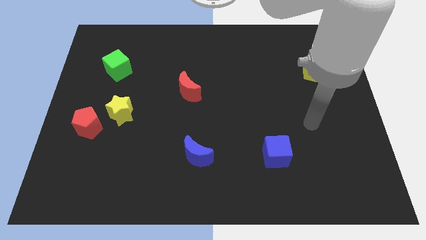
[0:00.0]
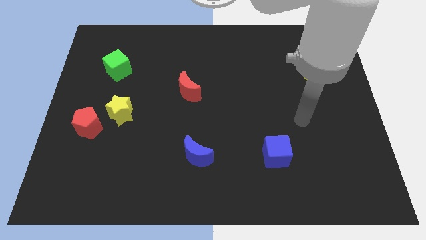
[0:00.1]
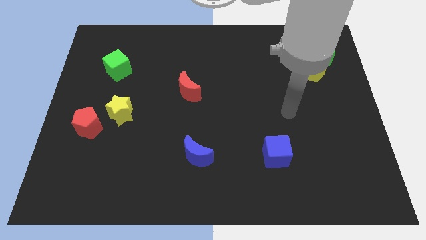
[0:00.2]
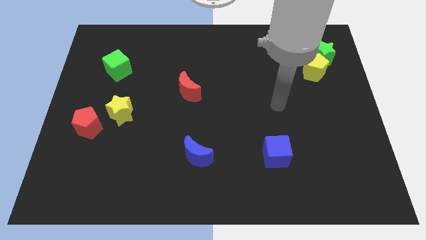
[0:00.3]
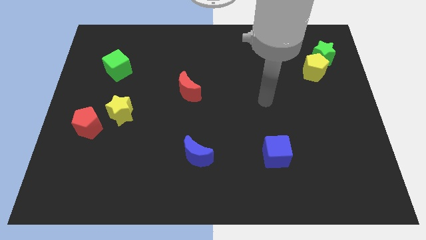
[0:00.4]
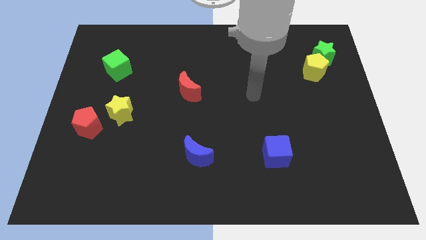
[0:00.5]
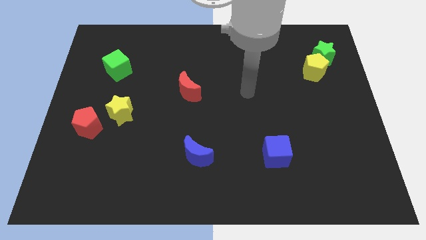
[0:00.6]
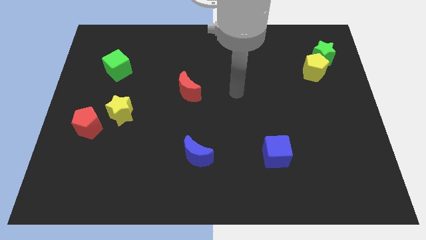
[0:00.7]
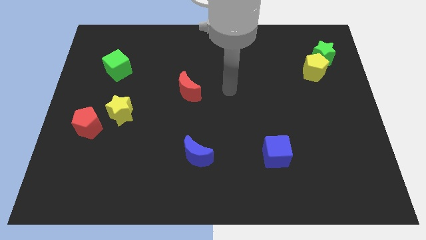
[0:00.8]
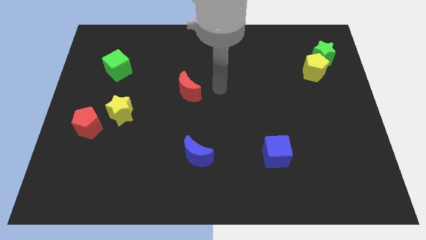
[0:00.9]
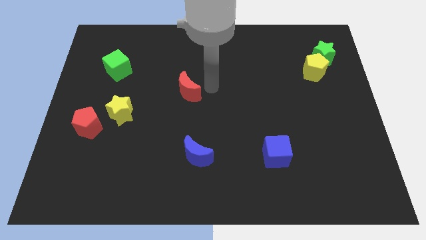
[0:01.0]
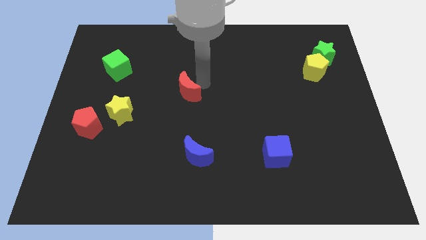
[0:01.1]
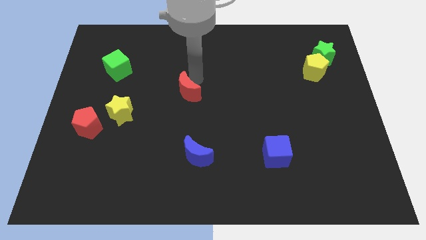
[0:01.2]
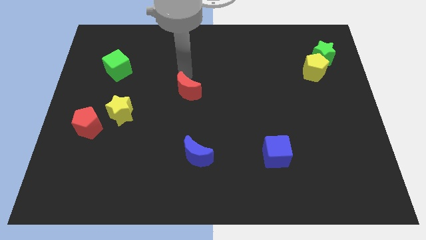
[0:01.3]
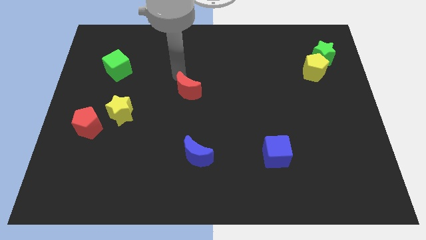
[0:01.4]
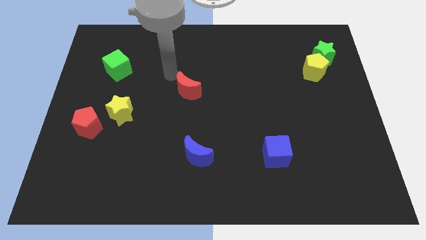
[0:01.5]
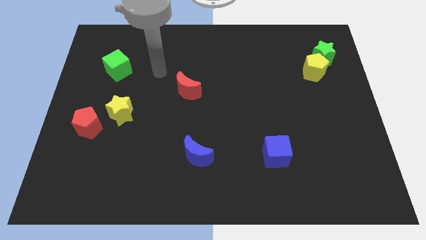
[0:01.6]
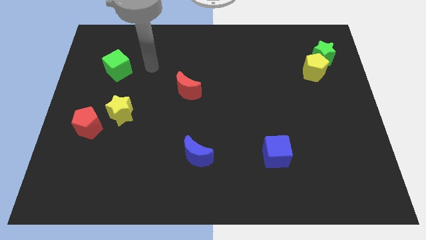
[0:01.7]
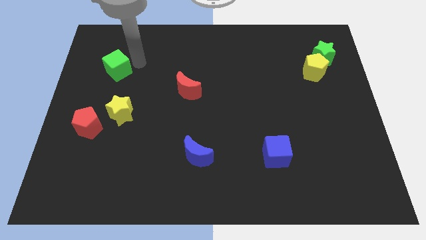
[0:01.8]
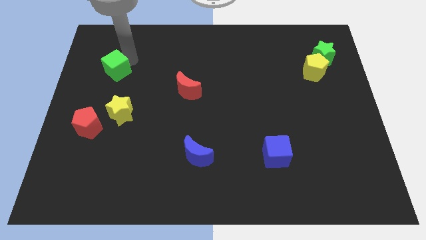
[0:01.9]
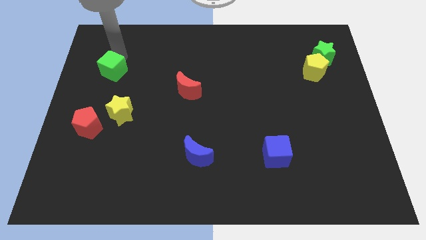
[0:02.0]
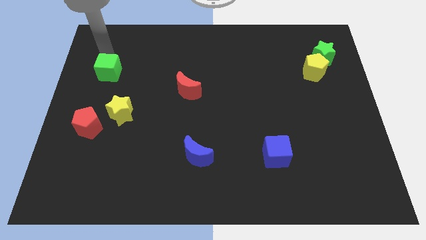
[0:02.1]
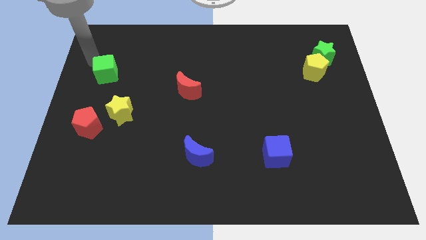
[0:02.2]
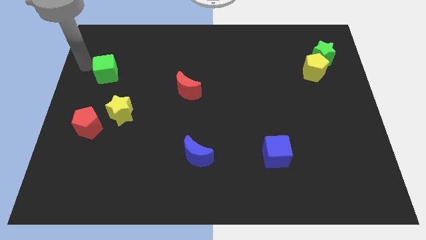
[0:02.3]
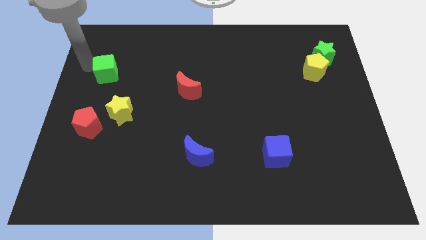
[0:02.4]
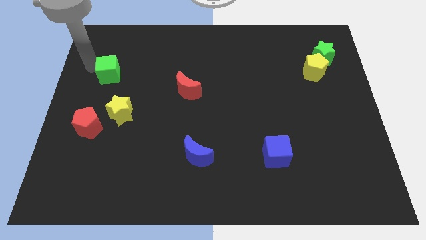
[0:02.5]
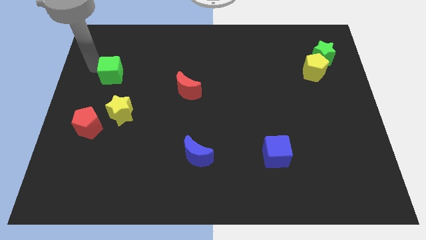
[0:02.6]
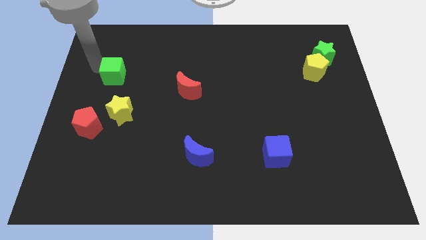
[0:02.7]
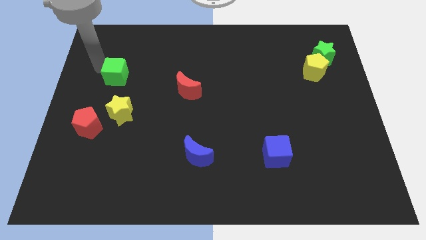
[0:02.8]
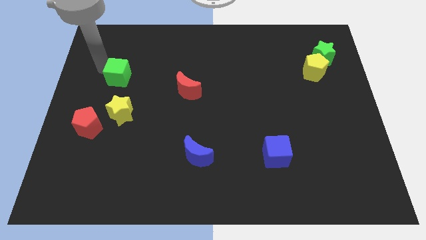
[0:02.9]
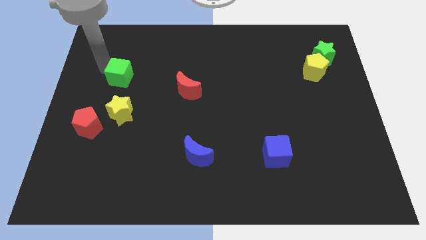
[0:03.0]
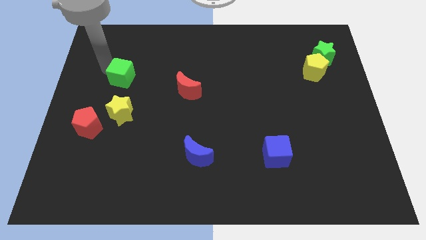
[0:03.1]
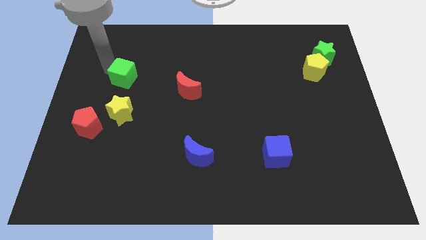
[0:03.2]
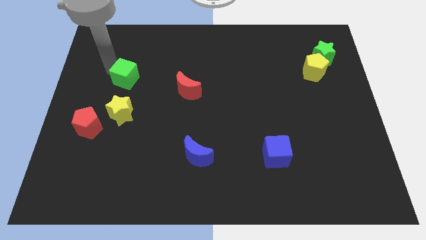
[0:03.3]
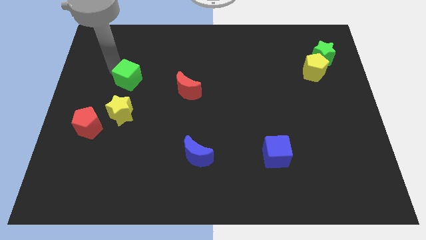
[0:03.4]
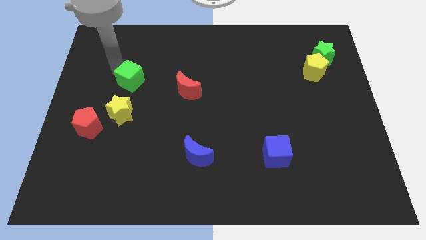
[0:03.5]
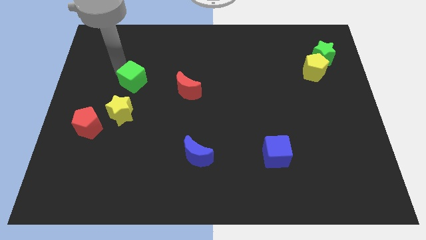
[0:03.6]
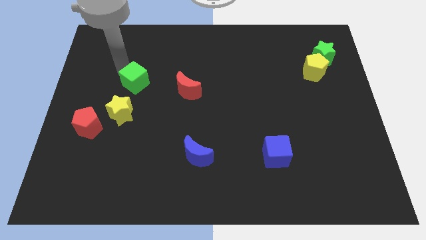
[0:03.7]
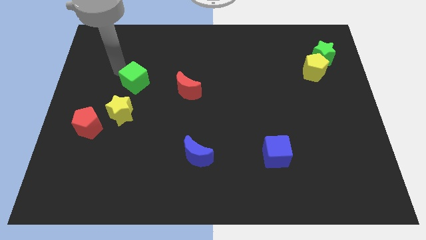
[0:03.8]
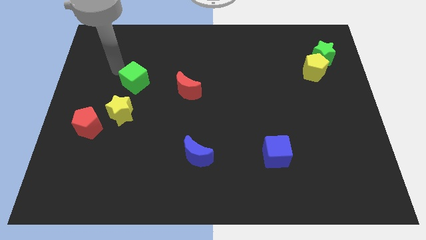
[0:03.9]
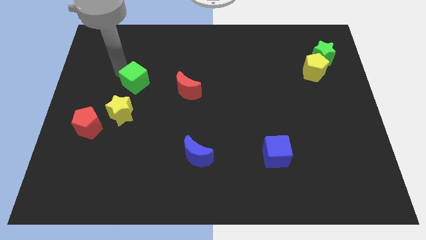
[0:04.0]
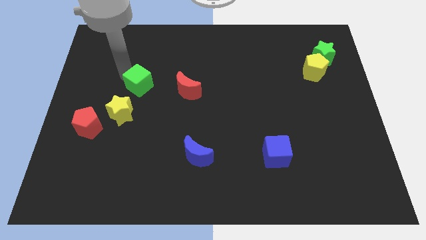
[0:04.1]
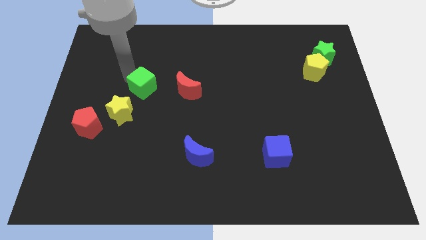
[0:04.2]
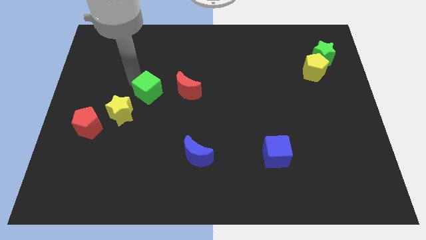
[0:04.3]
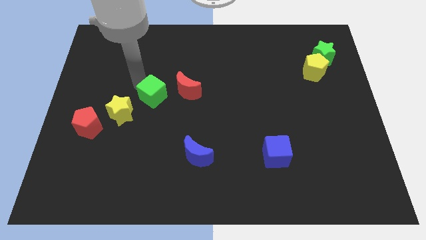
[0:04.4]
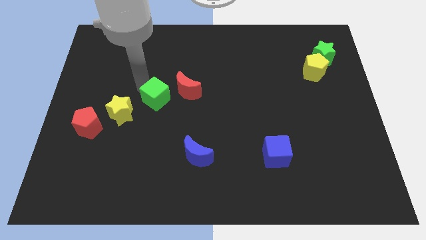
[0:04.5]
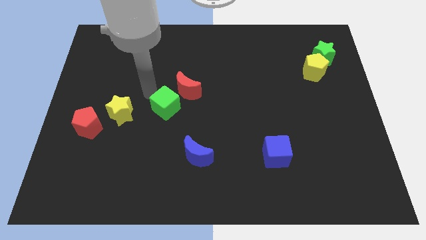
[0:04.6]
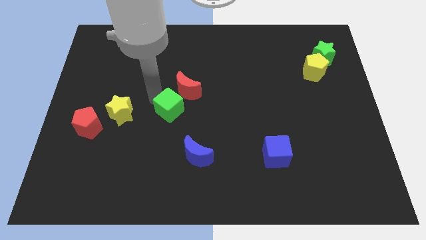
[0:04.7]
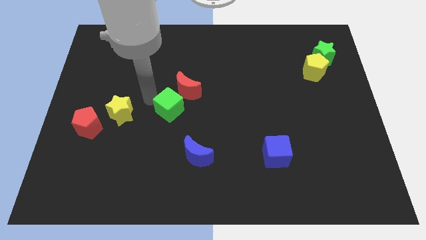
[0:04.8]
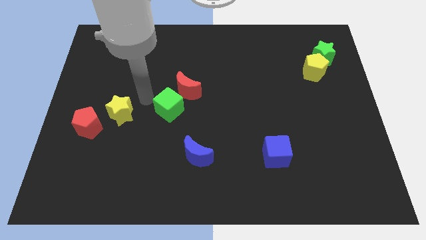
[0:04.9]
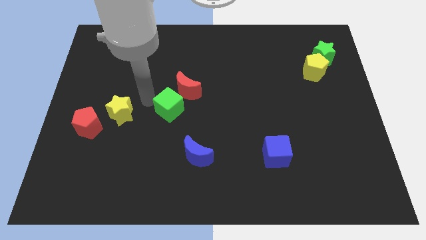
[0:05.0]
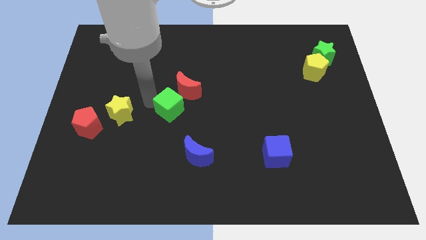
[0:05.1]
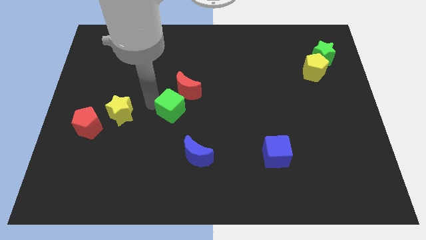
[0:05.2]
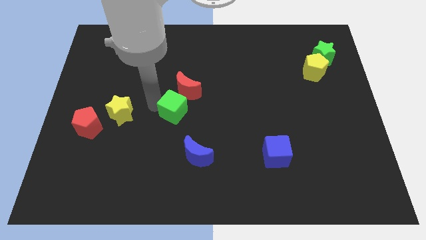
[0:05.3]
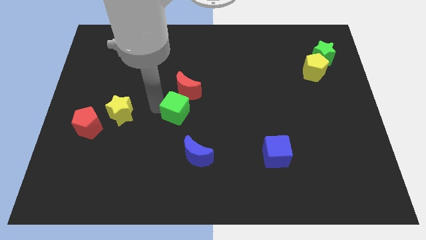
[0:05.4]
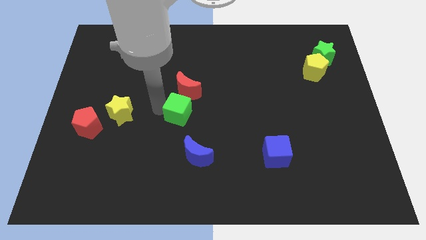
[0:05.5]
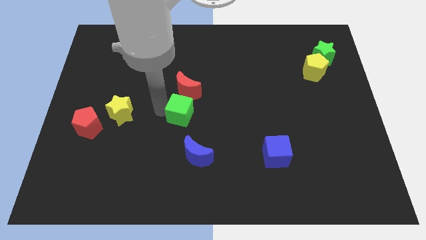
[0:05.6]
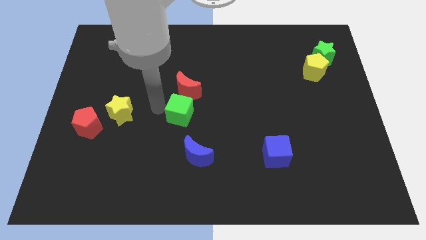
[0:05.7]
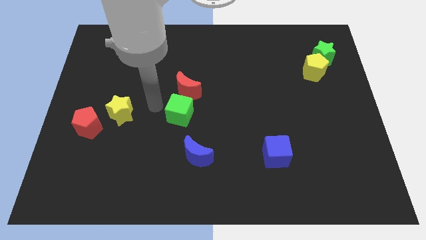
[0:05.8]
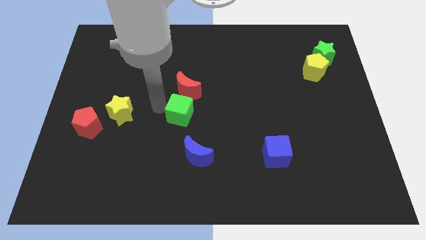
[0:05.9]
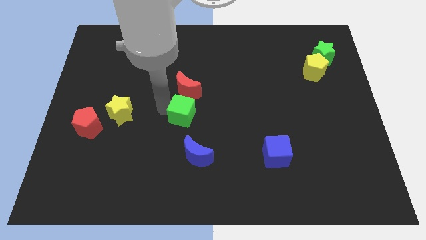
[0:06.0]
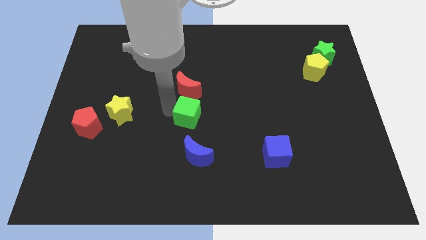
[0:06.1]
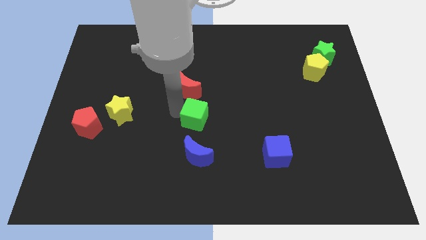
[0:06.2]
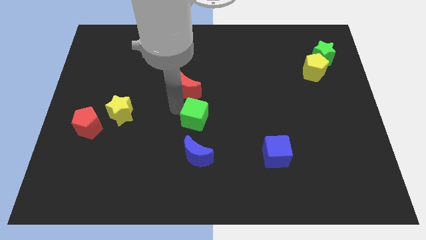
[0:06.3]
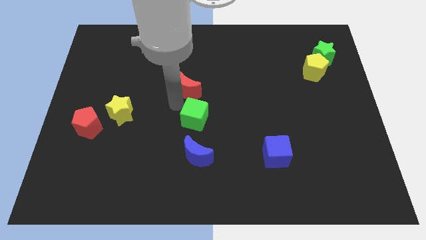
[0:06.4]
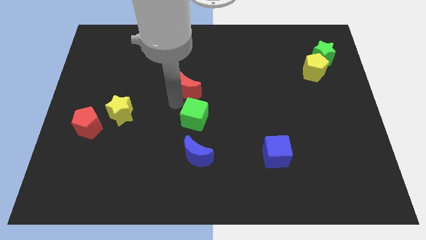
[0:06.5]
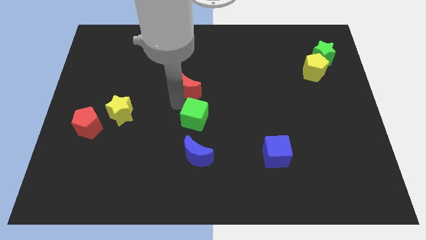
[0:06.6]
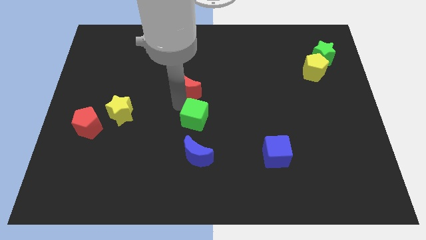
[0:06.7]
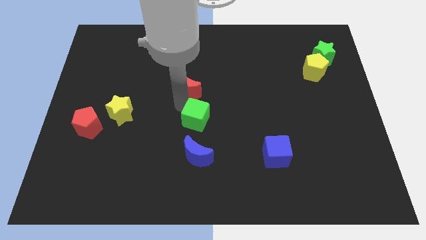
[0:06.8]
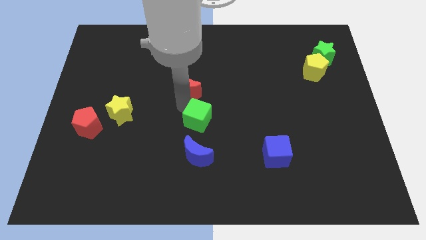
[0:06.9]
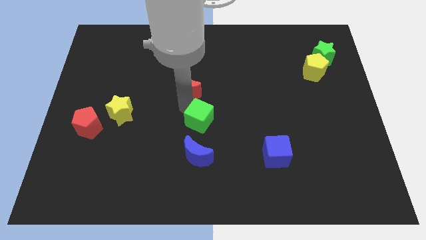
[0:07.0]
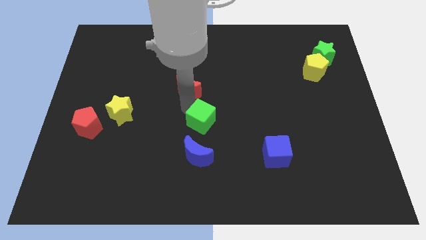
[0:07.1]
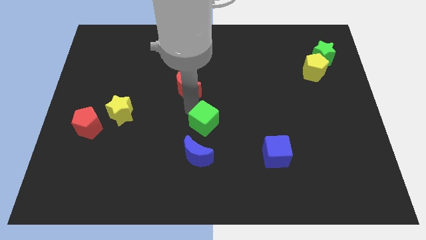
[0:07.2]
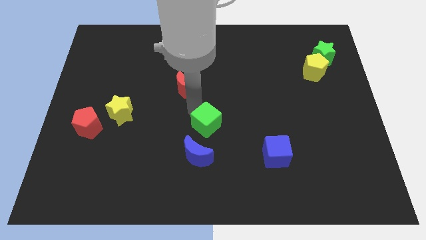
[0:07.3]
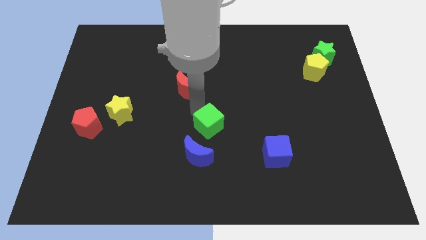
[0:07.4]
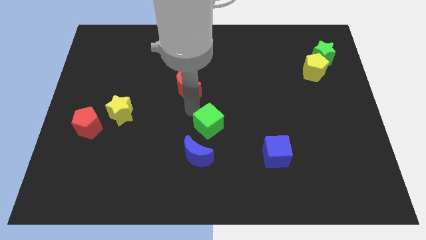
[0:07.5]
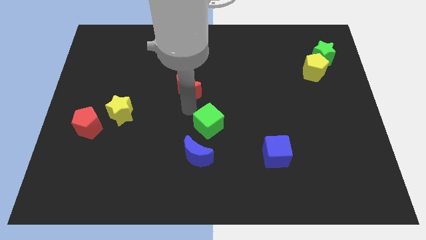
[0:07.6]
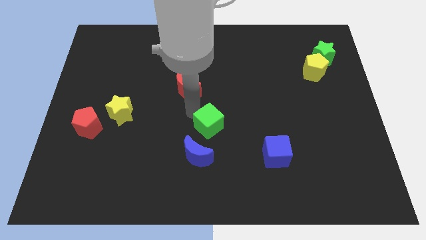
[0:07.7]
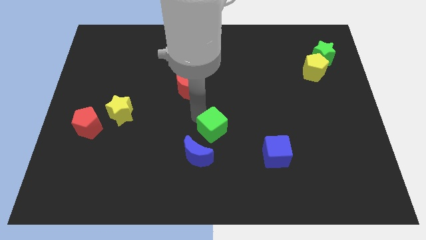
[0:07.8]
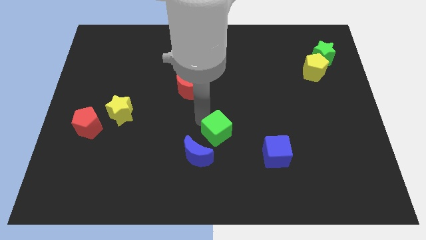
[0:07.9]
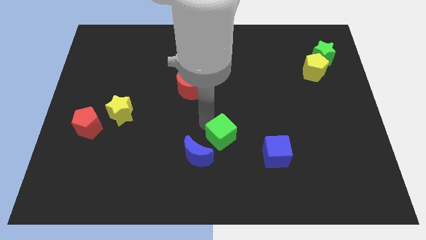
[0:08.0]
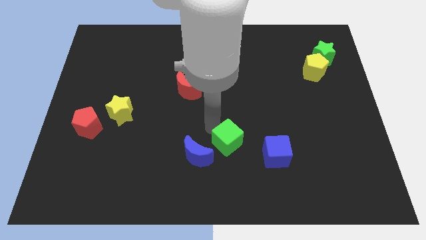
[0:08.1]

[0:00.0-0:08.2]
slide the green cube right of the blue moon
